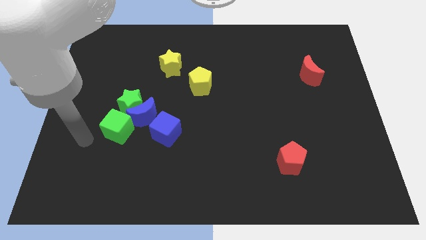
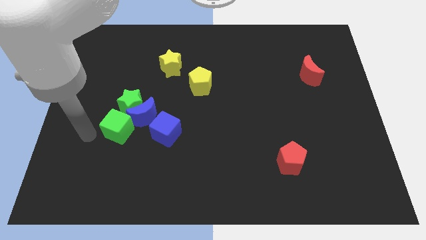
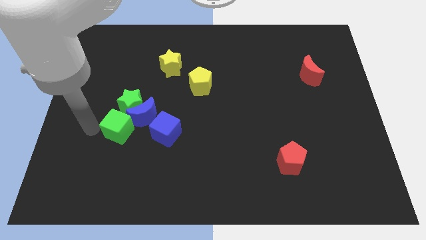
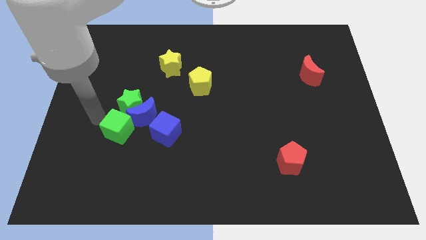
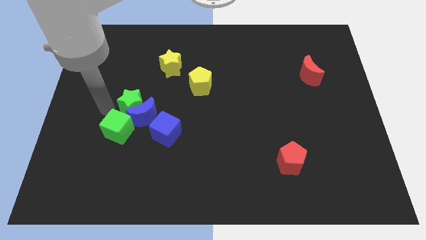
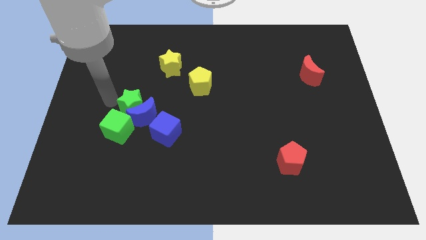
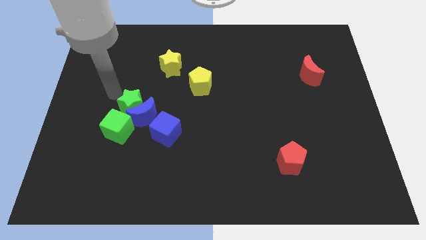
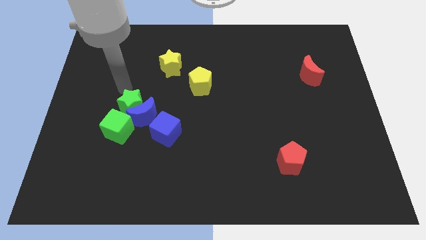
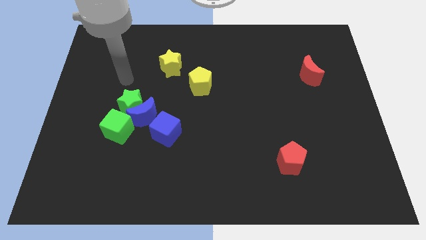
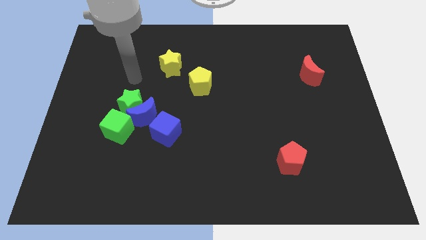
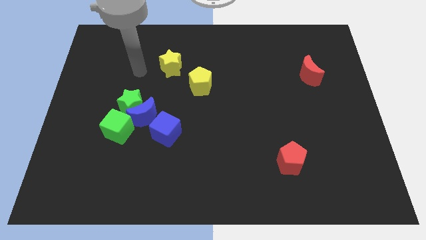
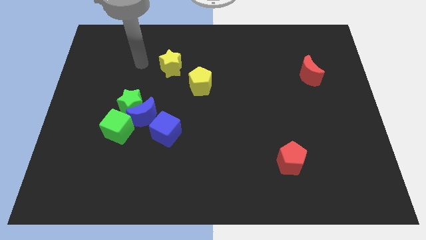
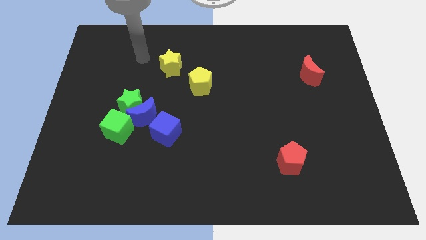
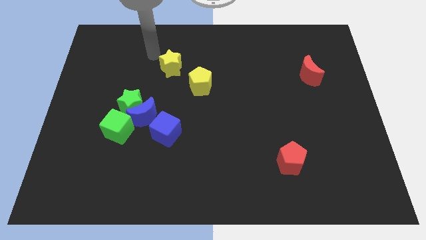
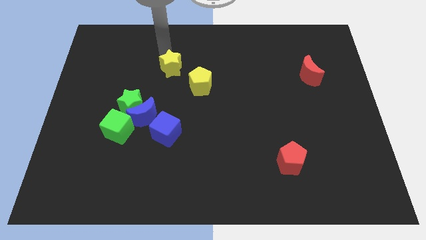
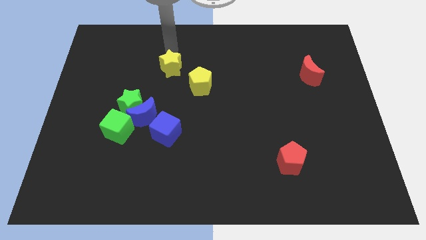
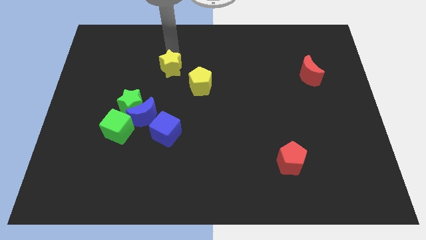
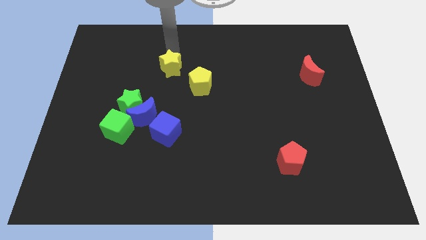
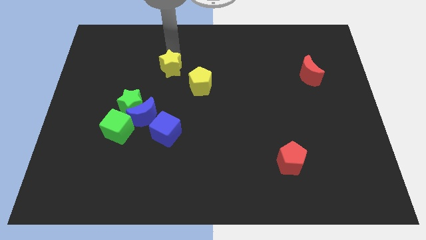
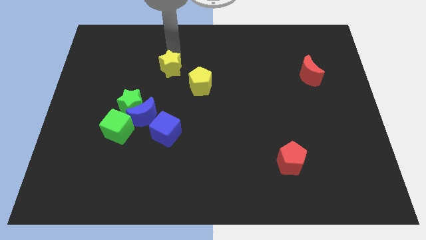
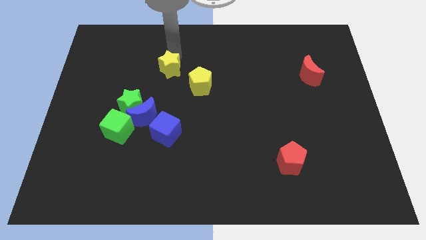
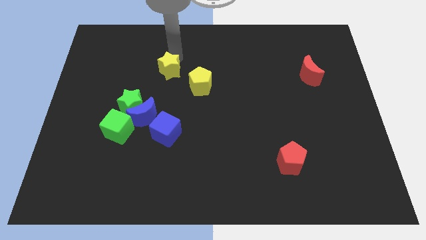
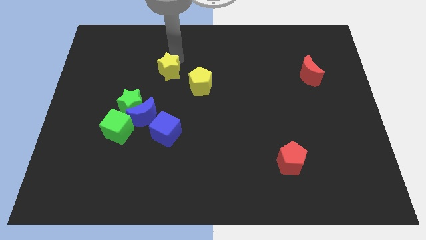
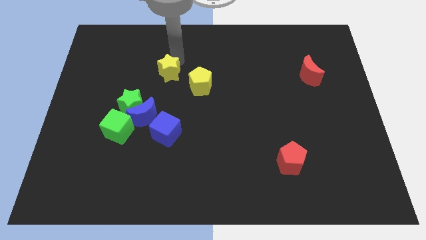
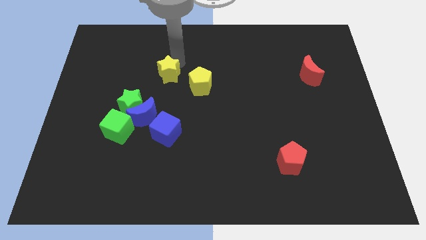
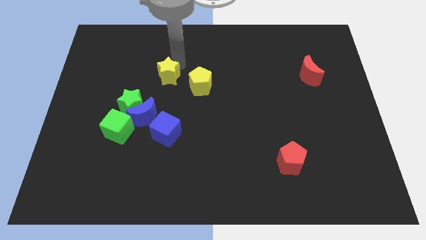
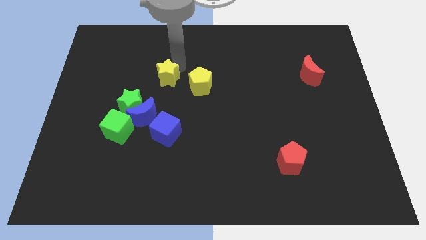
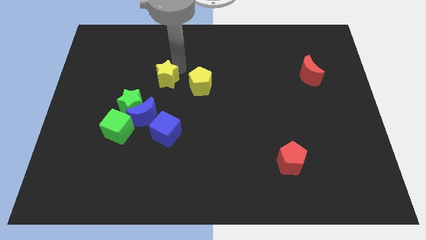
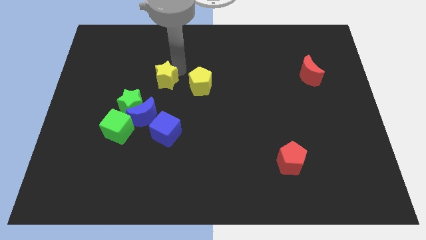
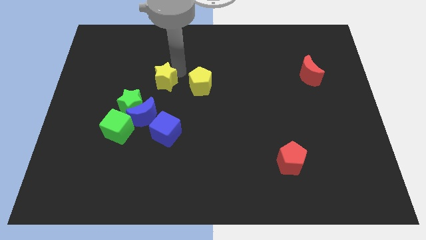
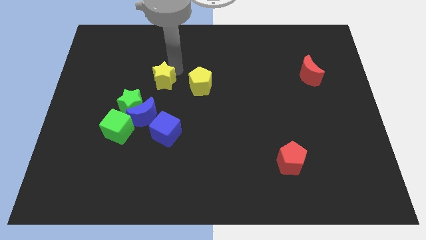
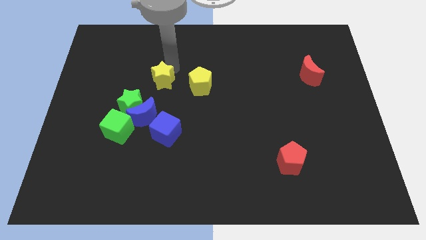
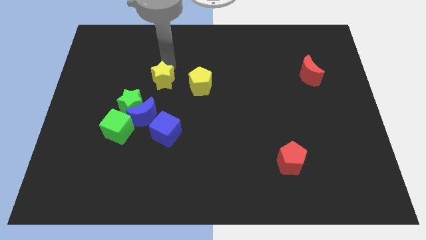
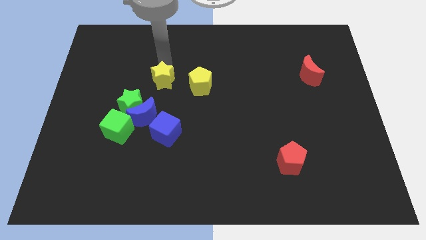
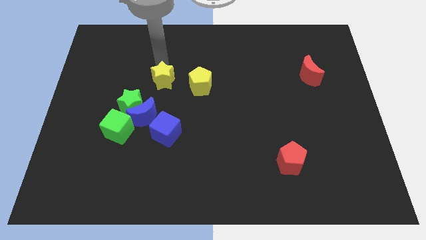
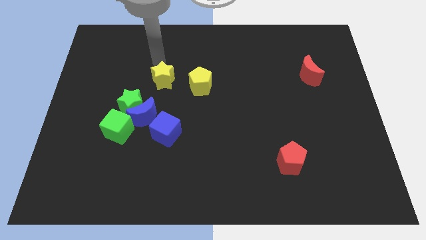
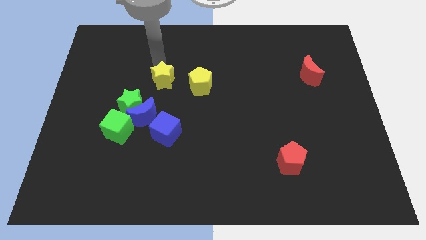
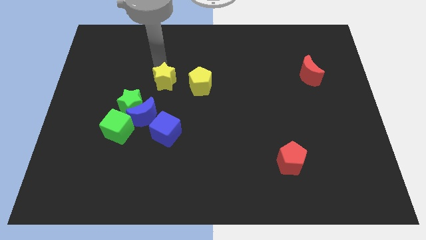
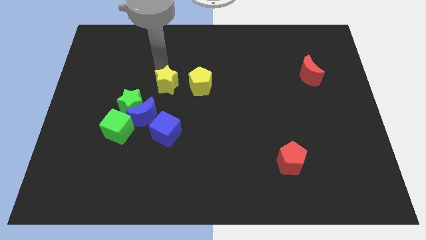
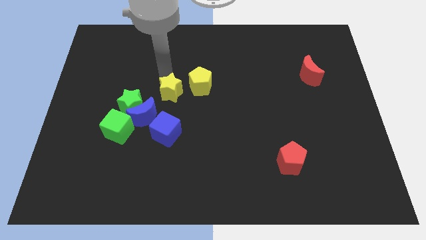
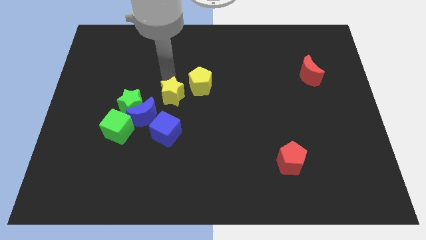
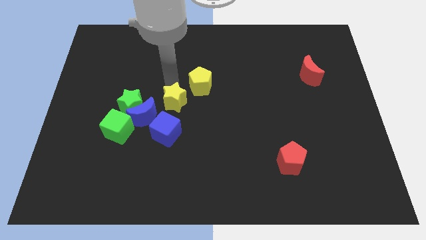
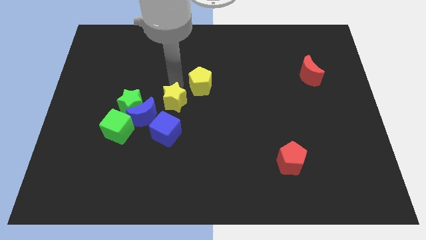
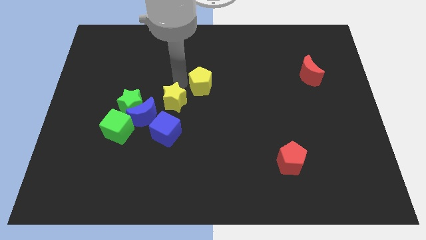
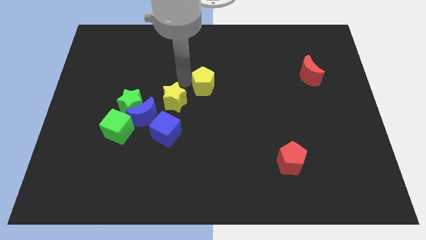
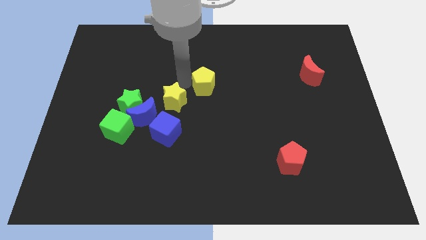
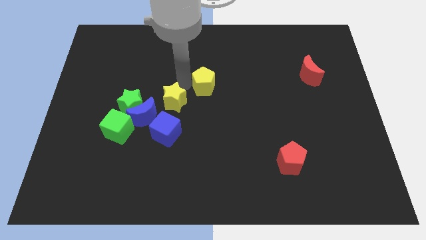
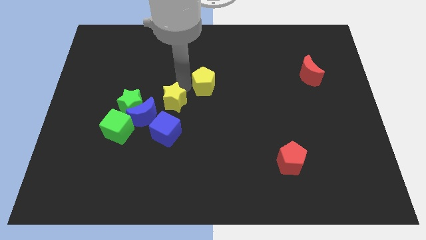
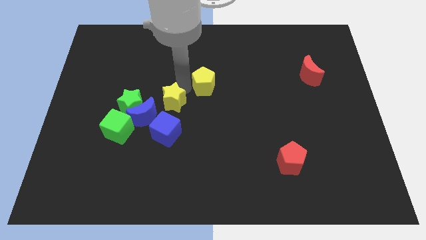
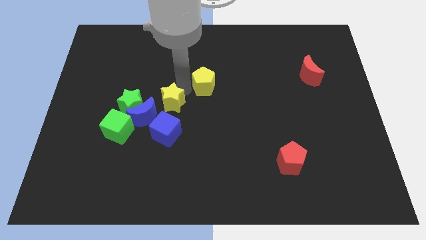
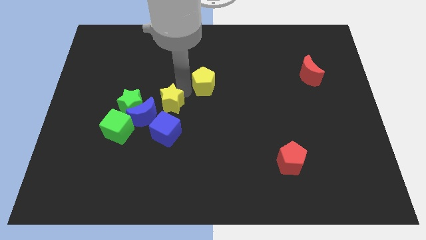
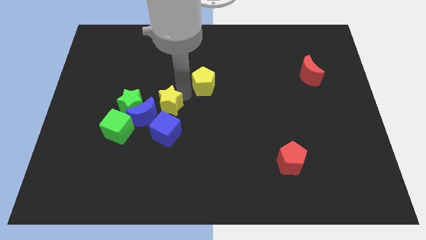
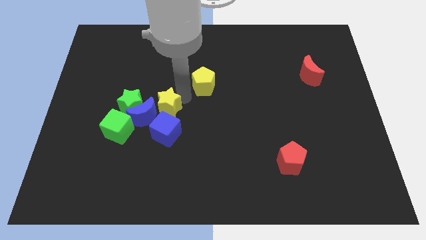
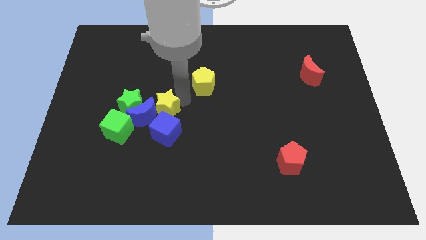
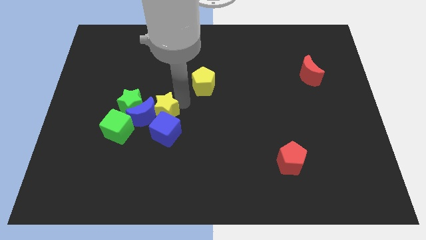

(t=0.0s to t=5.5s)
slide the yellow star towards the blue cube

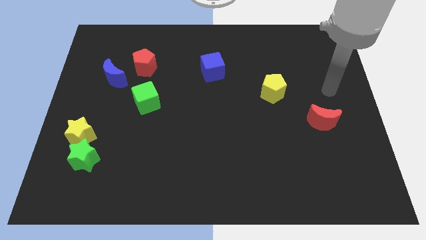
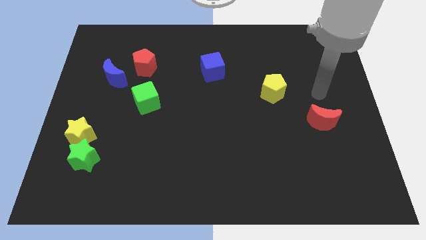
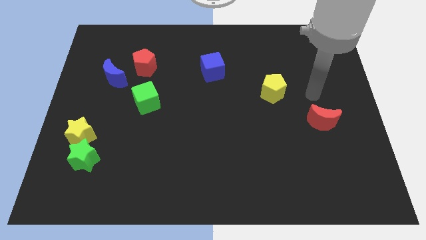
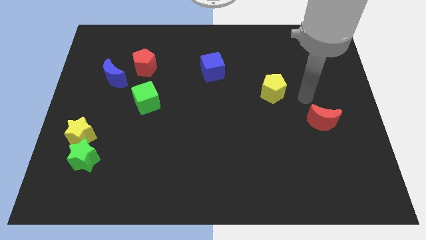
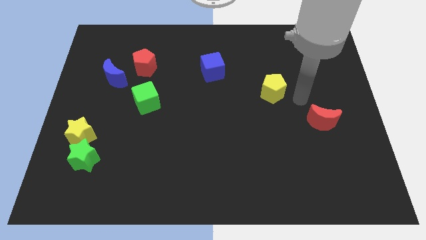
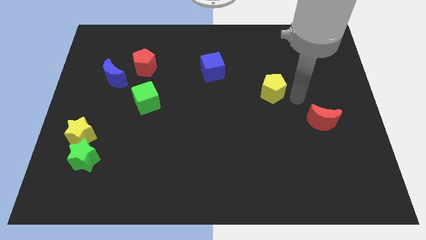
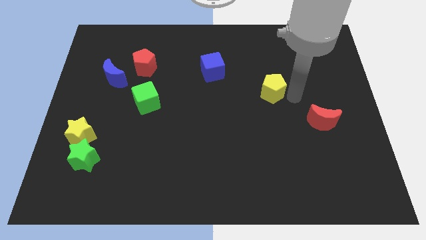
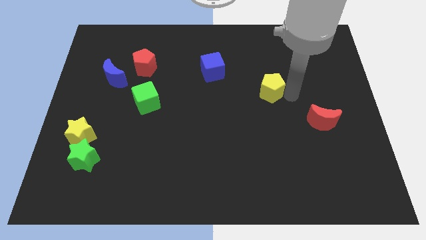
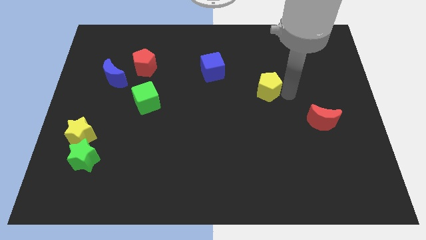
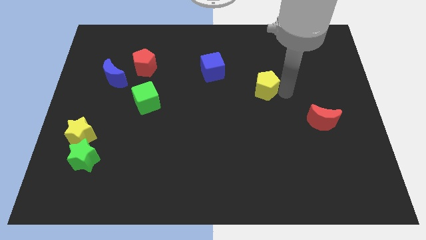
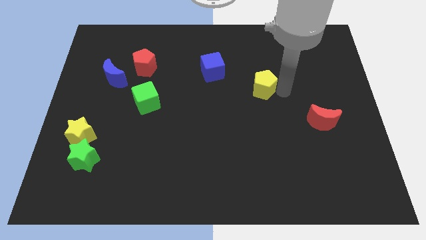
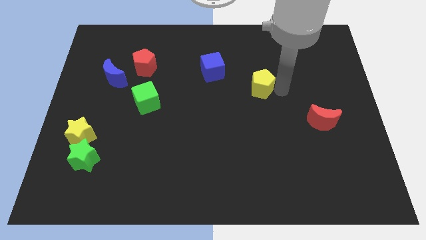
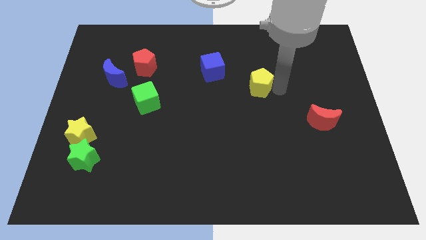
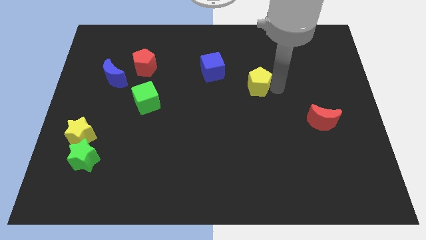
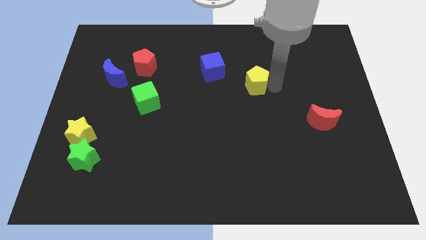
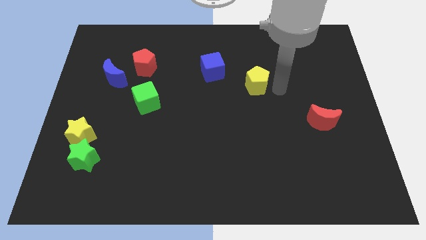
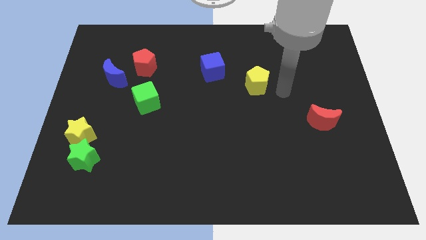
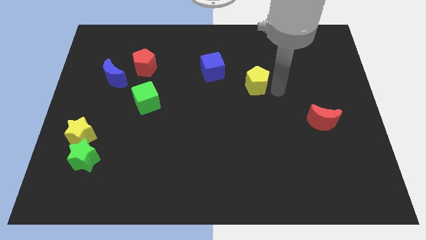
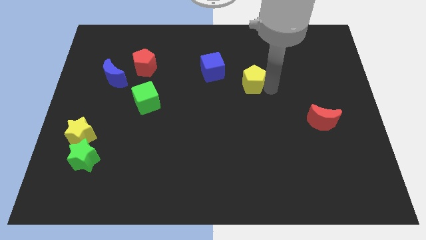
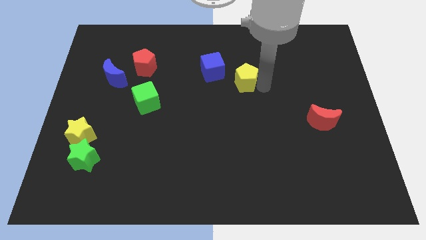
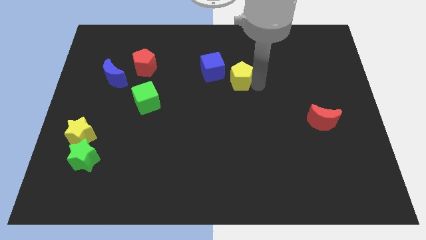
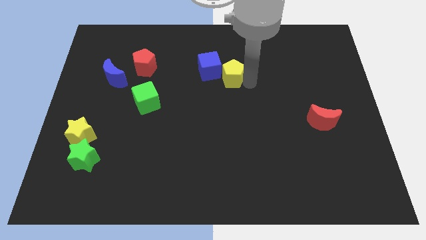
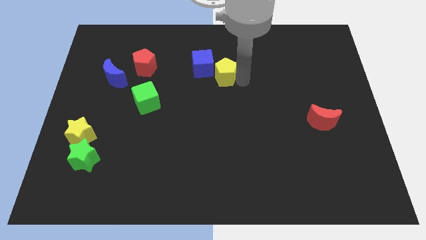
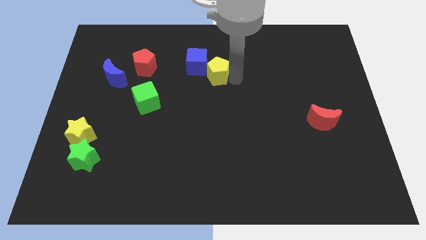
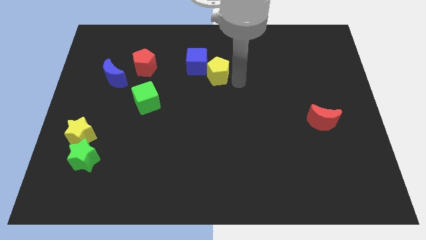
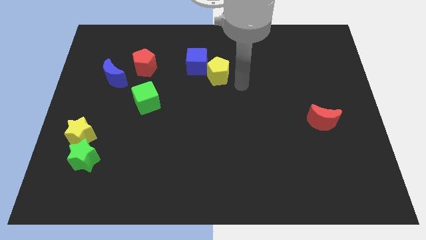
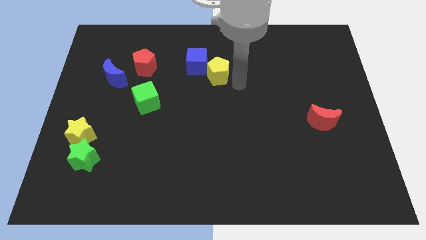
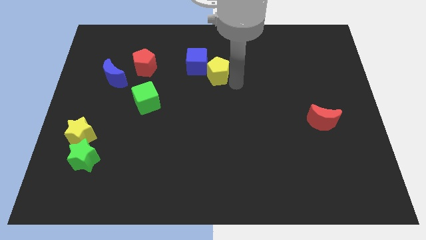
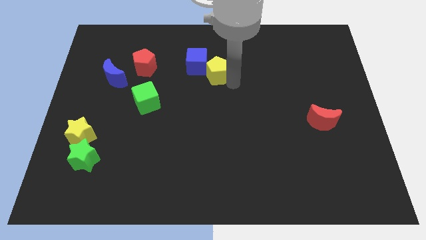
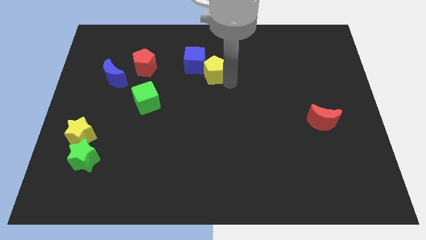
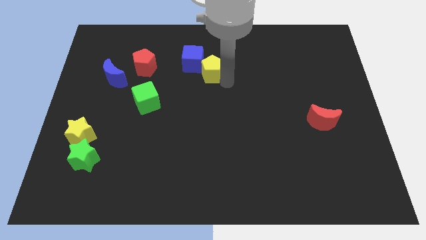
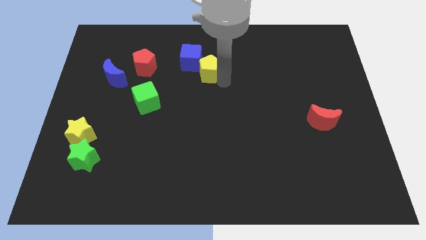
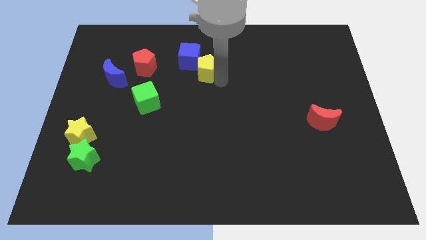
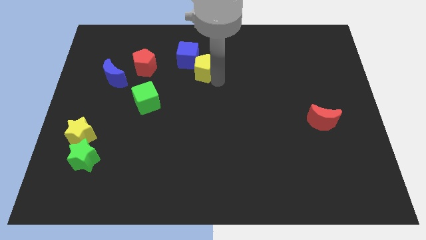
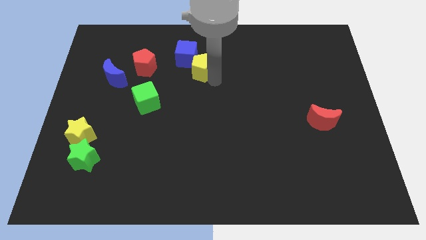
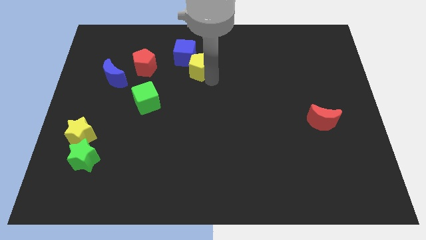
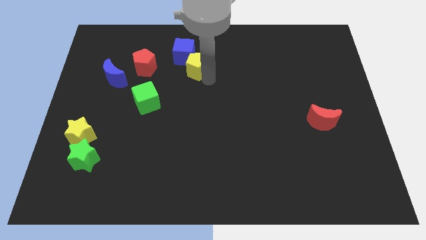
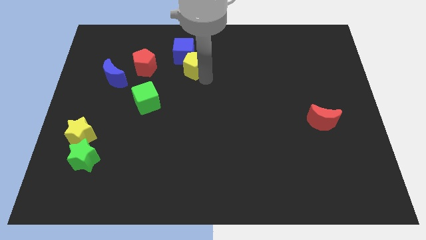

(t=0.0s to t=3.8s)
slide the yellow pentagon next to the blue cube
